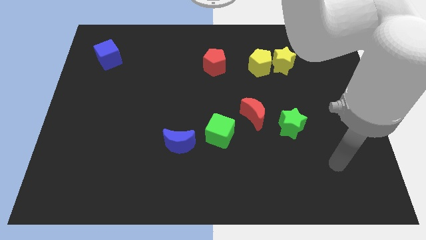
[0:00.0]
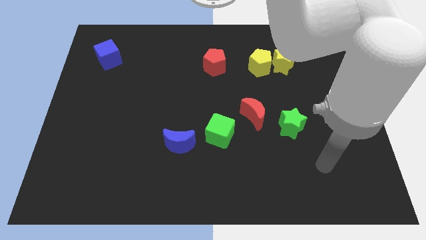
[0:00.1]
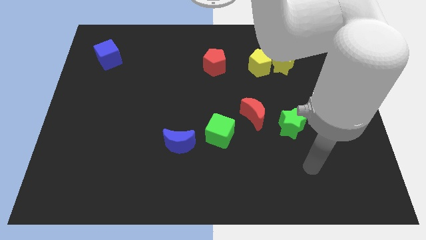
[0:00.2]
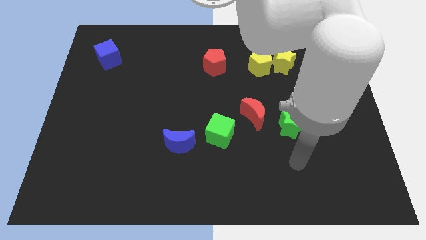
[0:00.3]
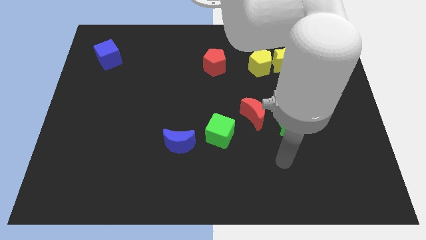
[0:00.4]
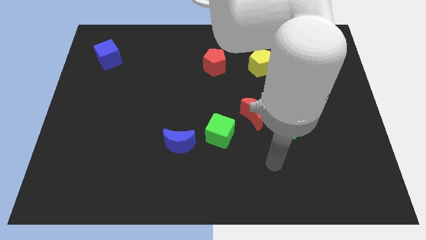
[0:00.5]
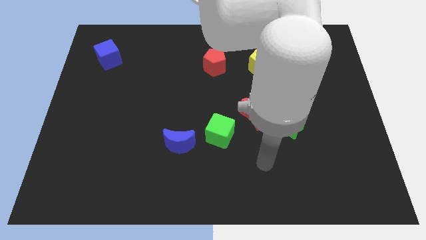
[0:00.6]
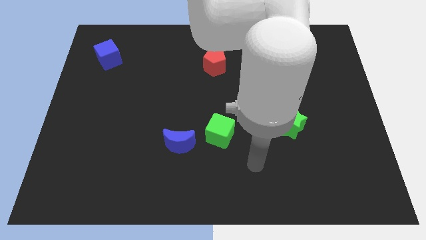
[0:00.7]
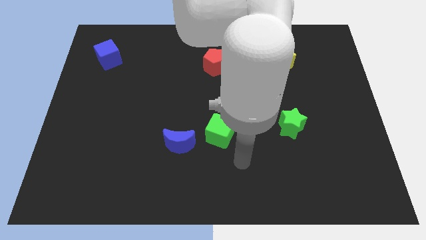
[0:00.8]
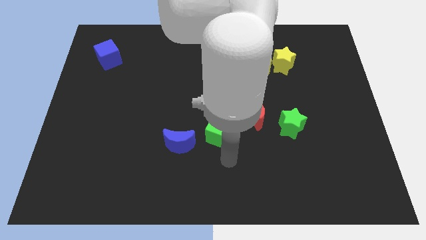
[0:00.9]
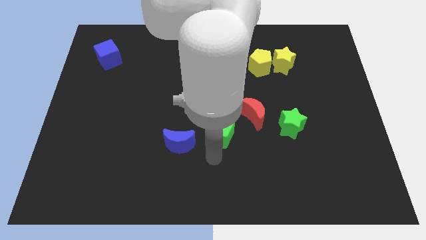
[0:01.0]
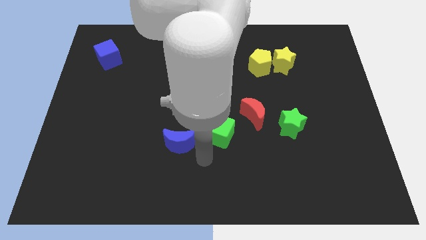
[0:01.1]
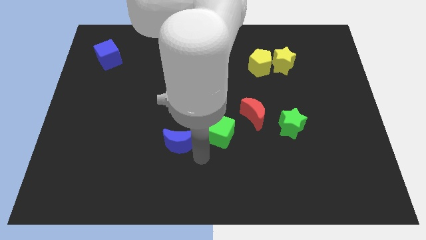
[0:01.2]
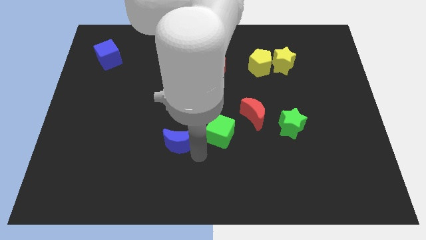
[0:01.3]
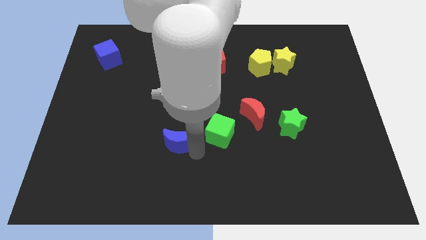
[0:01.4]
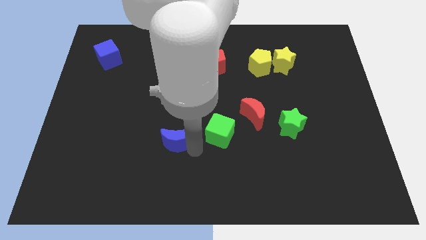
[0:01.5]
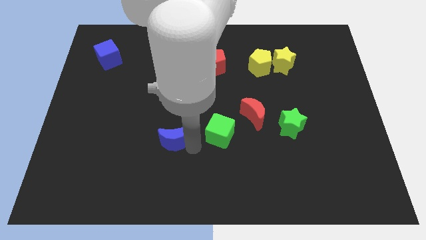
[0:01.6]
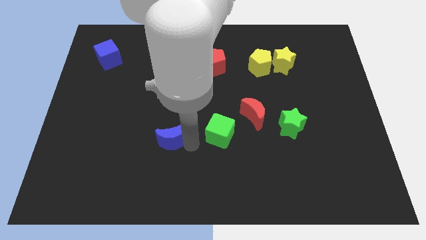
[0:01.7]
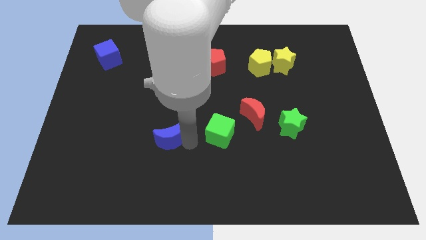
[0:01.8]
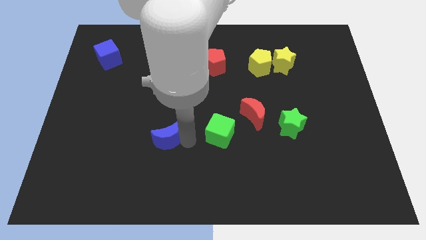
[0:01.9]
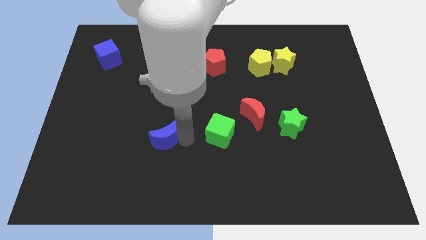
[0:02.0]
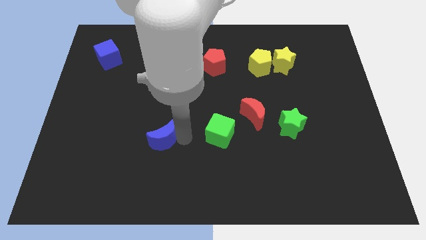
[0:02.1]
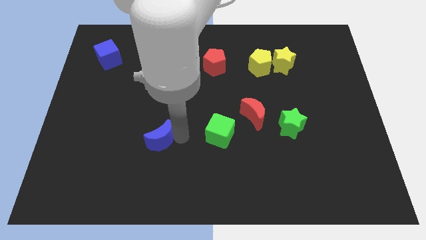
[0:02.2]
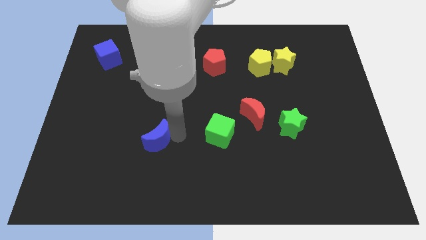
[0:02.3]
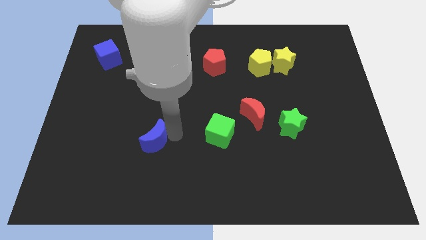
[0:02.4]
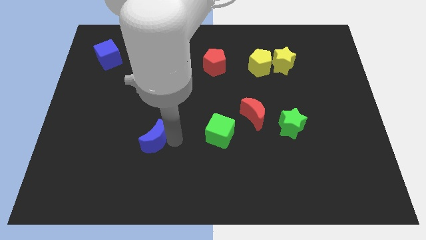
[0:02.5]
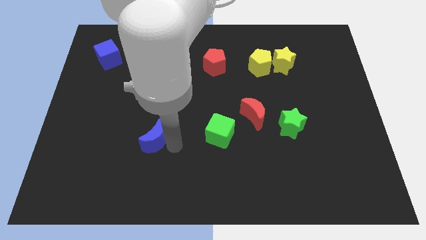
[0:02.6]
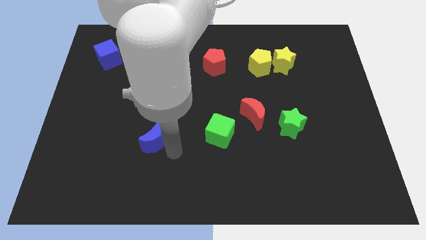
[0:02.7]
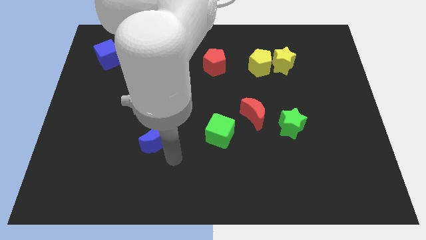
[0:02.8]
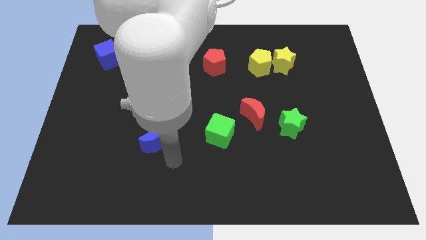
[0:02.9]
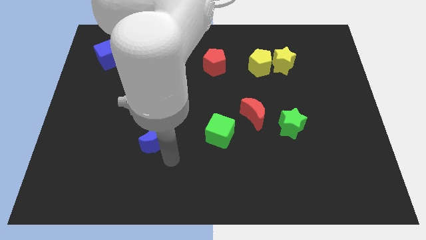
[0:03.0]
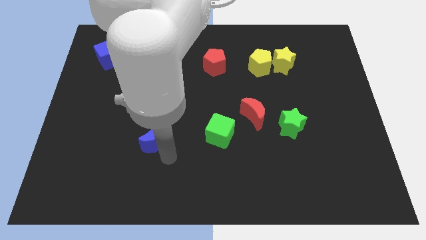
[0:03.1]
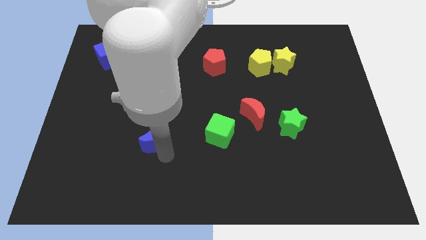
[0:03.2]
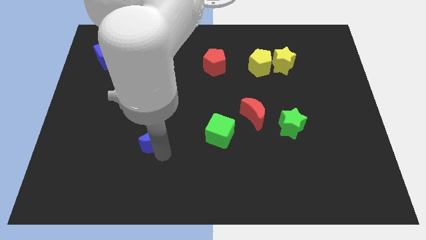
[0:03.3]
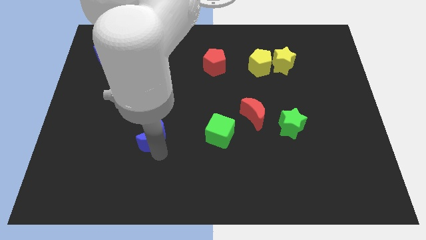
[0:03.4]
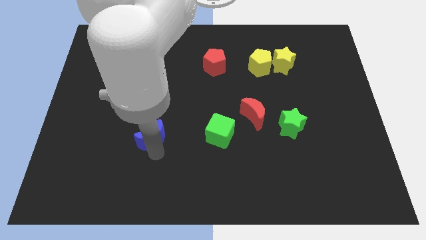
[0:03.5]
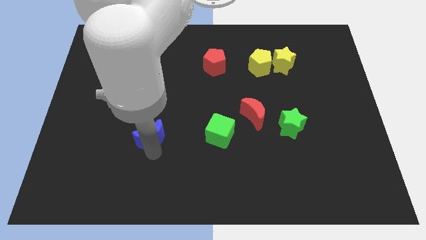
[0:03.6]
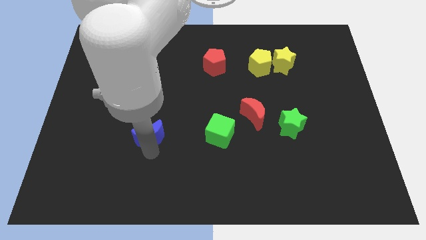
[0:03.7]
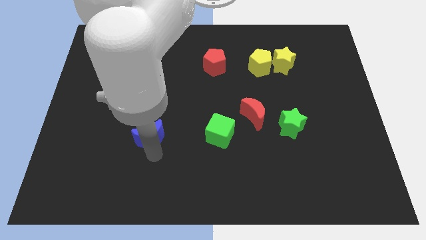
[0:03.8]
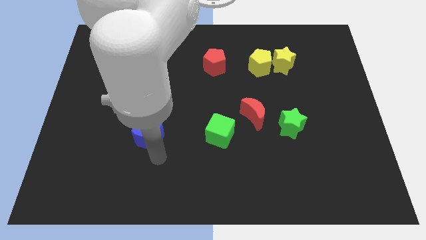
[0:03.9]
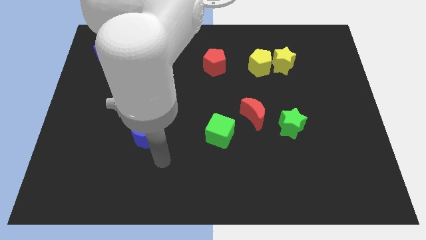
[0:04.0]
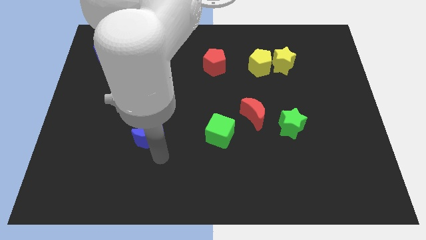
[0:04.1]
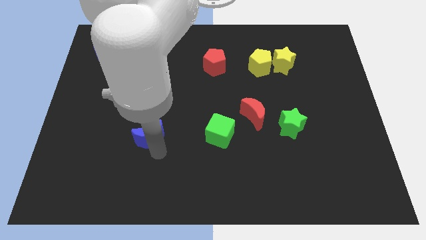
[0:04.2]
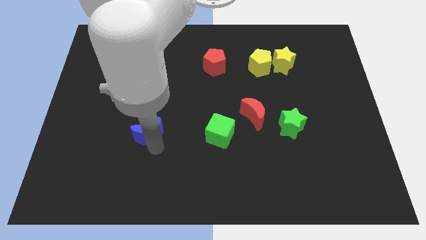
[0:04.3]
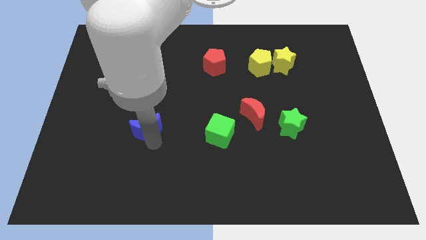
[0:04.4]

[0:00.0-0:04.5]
push the blue moon up and then to the left a little bit

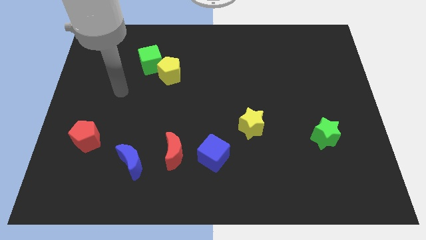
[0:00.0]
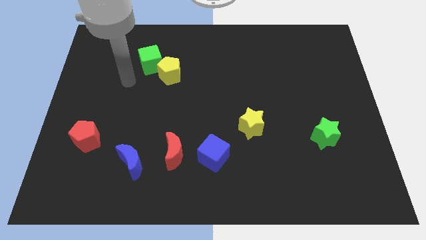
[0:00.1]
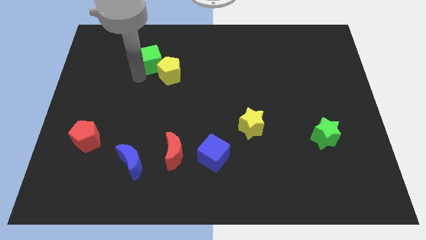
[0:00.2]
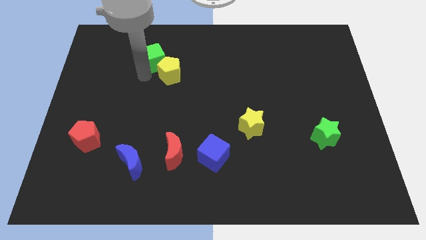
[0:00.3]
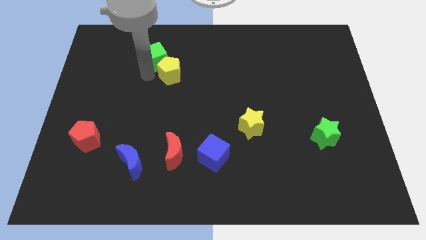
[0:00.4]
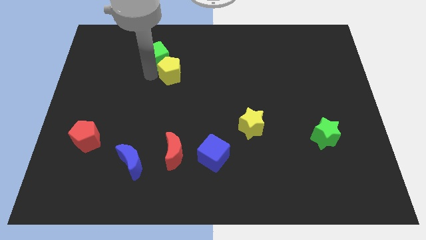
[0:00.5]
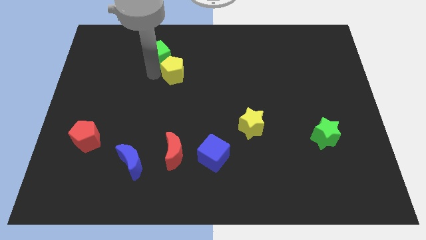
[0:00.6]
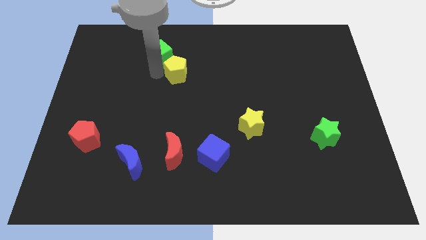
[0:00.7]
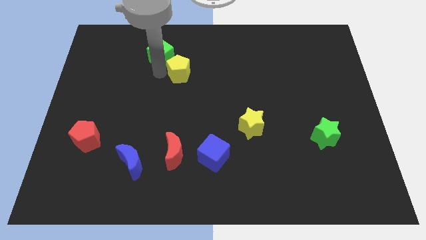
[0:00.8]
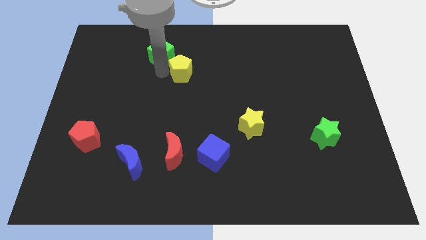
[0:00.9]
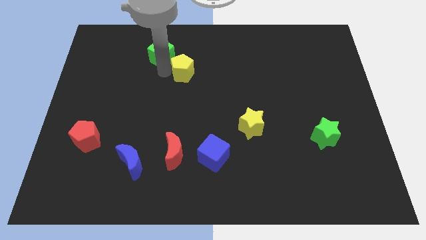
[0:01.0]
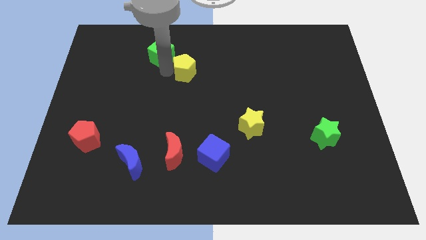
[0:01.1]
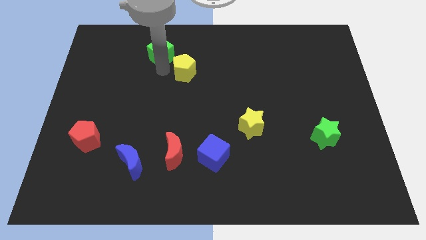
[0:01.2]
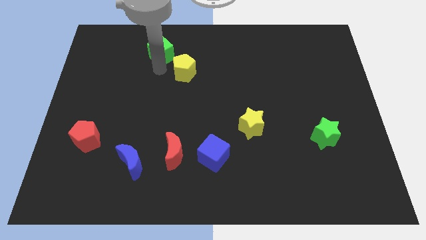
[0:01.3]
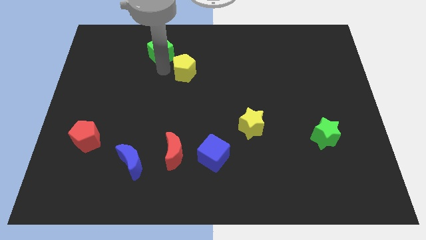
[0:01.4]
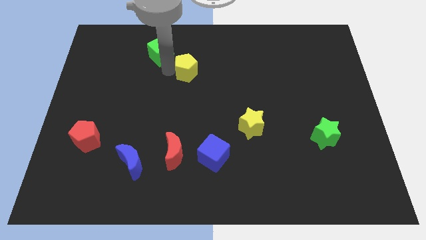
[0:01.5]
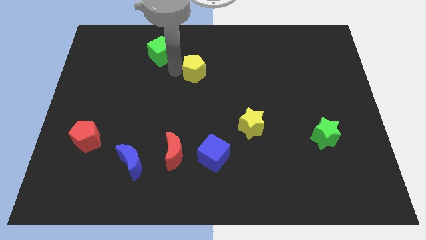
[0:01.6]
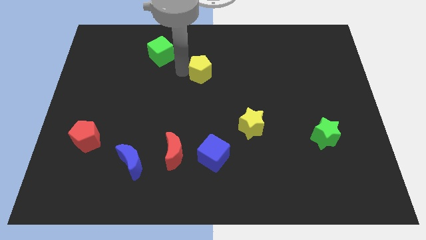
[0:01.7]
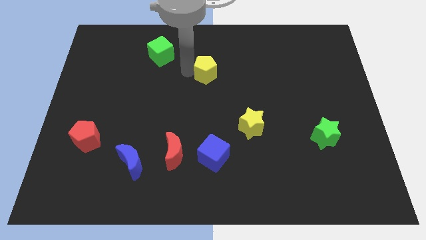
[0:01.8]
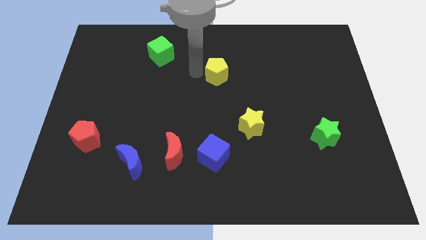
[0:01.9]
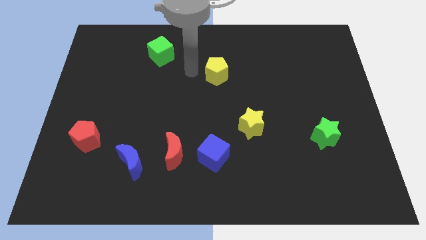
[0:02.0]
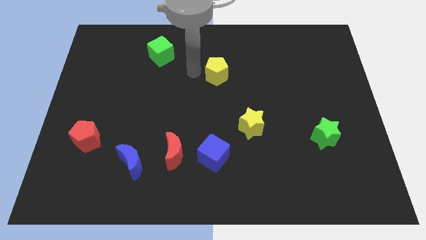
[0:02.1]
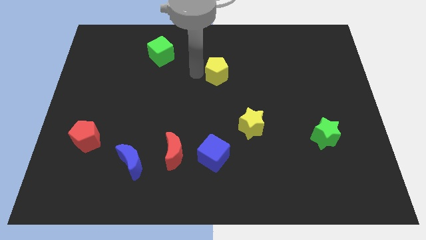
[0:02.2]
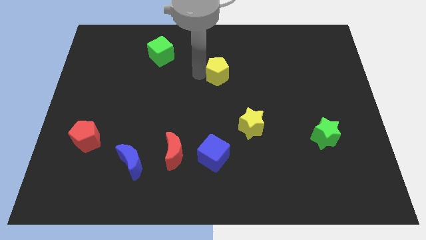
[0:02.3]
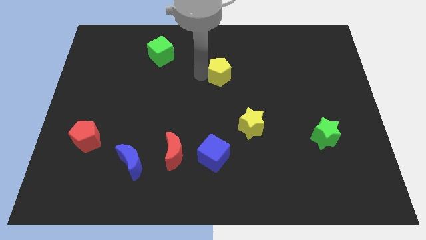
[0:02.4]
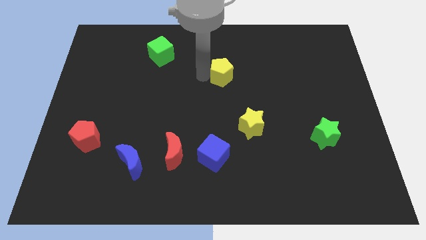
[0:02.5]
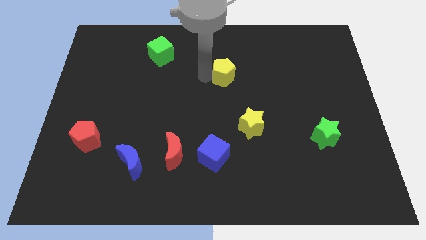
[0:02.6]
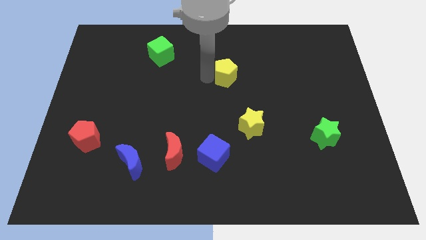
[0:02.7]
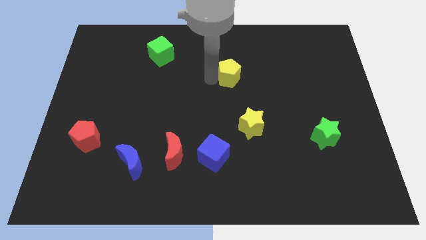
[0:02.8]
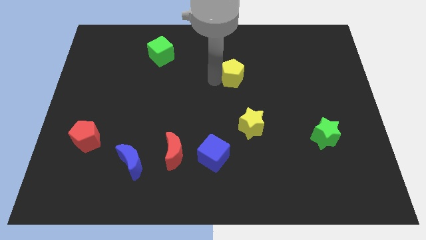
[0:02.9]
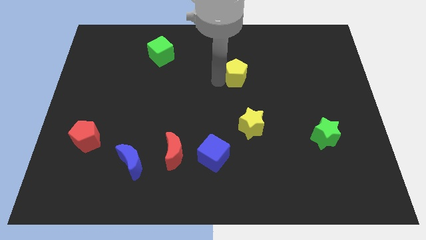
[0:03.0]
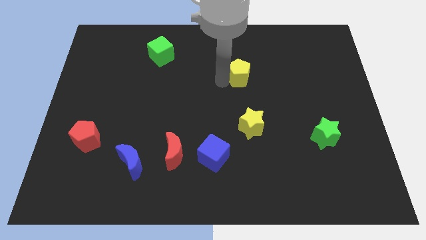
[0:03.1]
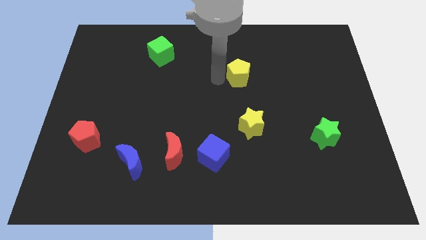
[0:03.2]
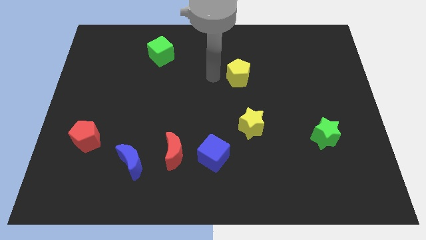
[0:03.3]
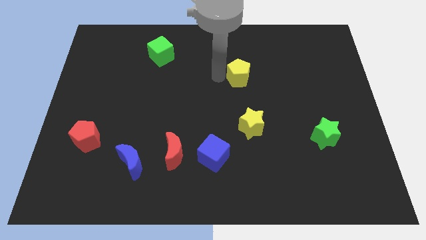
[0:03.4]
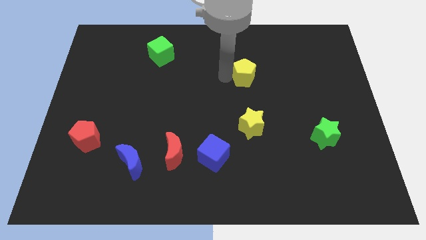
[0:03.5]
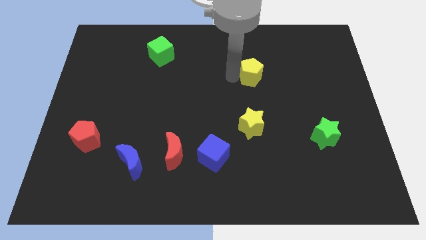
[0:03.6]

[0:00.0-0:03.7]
move the yellow pentagon to the right
